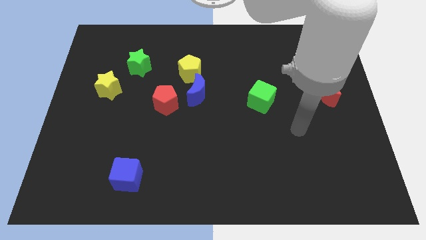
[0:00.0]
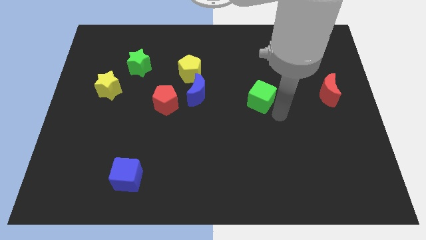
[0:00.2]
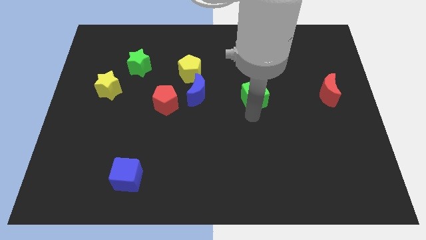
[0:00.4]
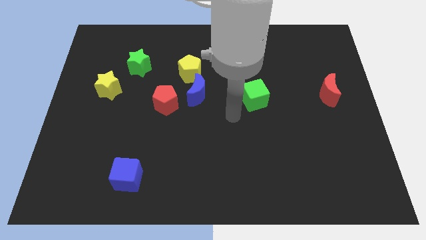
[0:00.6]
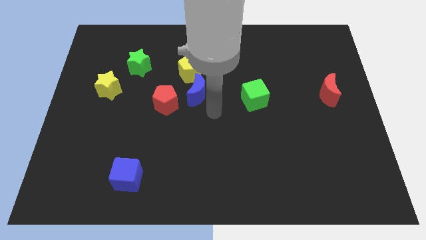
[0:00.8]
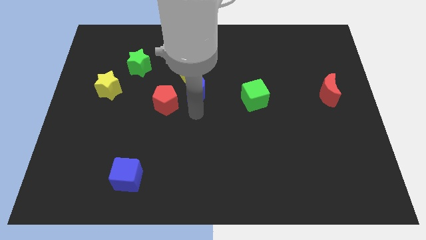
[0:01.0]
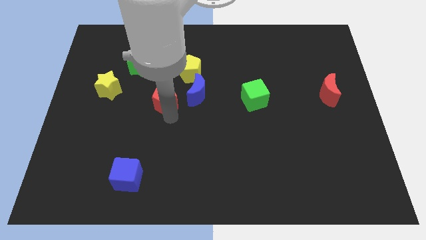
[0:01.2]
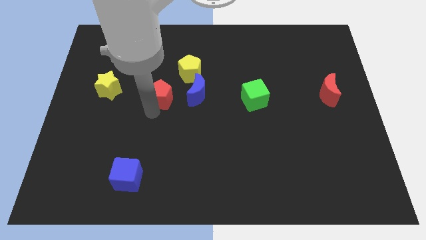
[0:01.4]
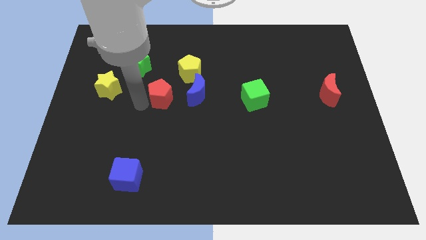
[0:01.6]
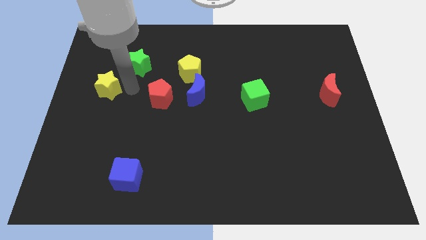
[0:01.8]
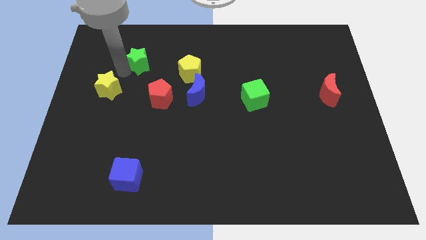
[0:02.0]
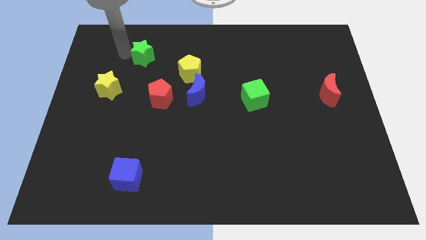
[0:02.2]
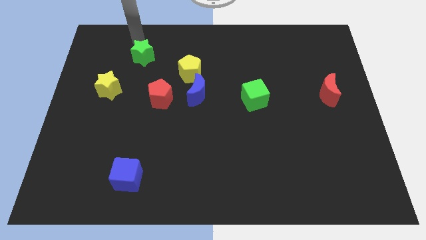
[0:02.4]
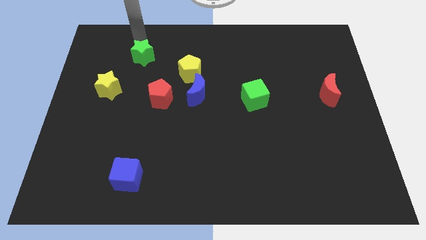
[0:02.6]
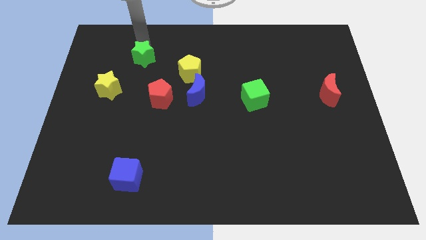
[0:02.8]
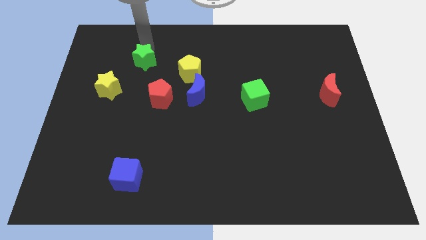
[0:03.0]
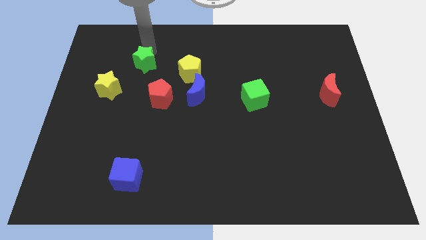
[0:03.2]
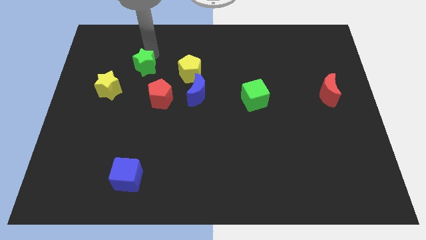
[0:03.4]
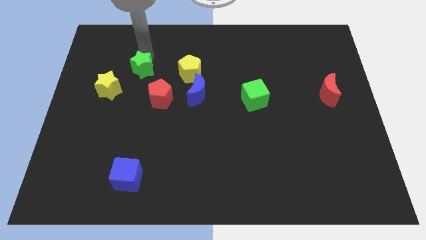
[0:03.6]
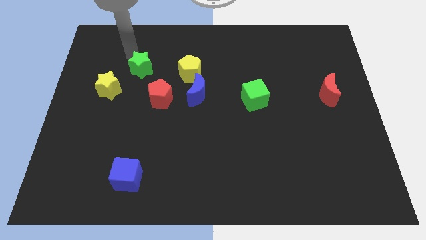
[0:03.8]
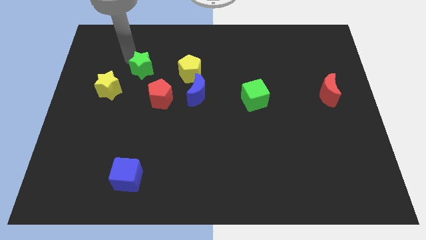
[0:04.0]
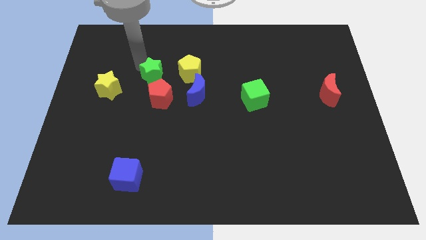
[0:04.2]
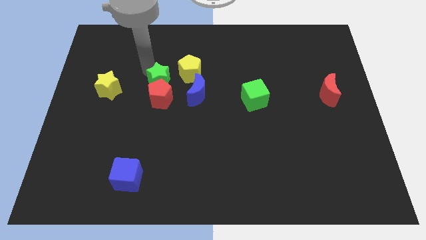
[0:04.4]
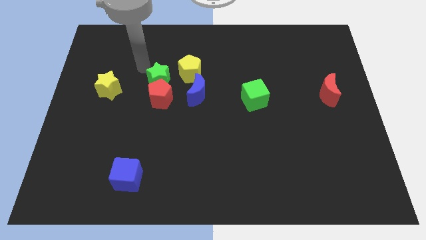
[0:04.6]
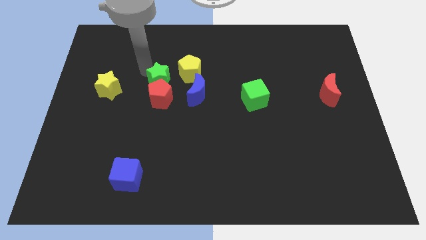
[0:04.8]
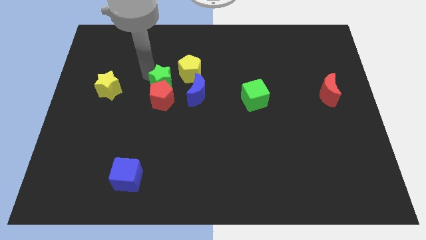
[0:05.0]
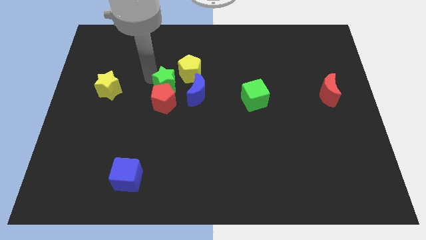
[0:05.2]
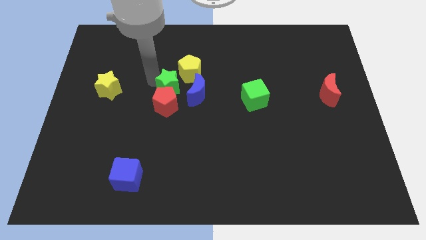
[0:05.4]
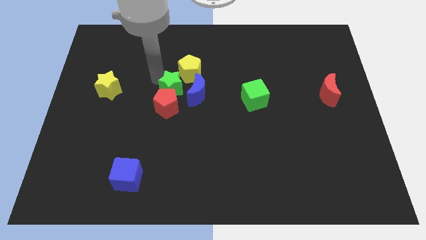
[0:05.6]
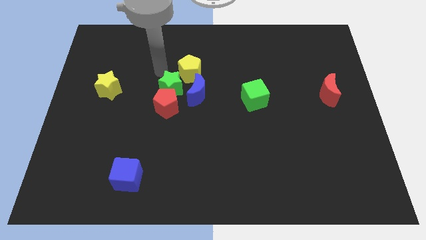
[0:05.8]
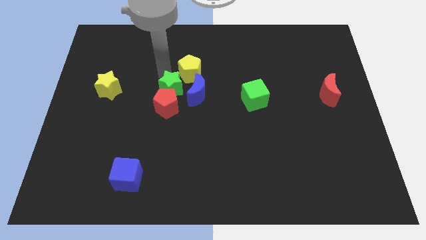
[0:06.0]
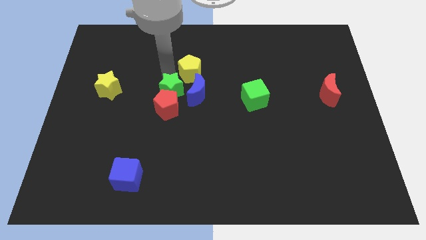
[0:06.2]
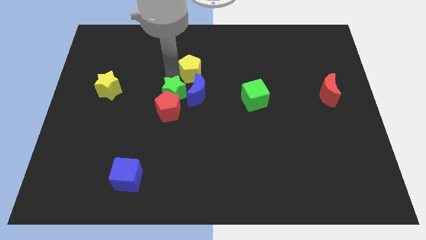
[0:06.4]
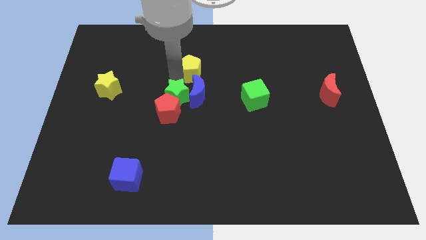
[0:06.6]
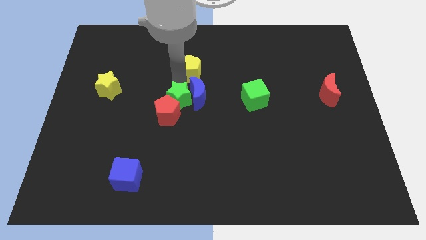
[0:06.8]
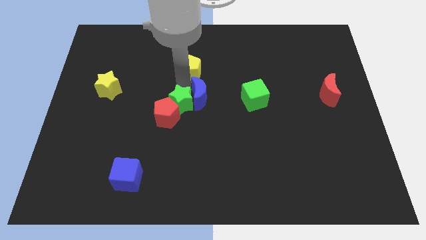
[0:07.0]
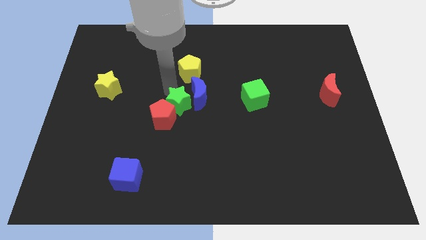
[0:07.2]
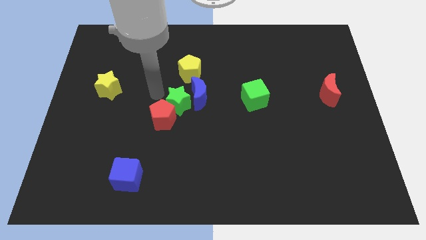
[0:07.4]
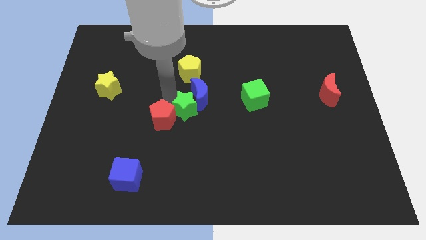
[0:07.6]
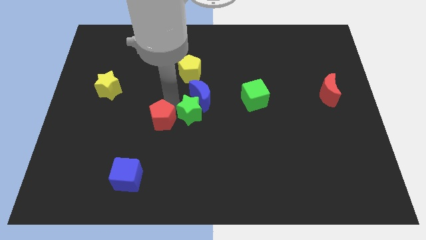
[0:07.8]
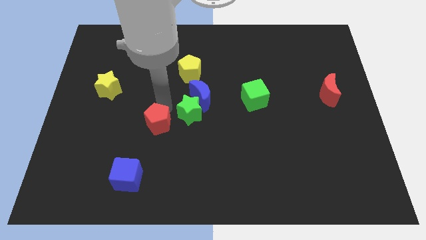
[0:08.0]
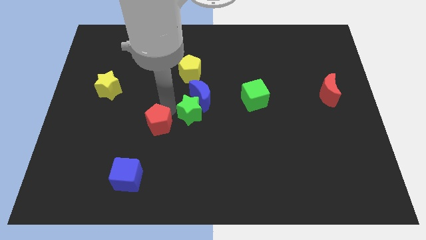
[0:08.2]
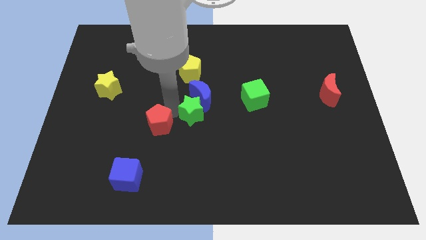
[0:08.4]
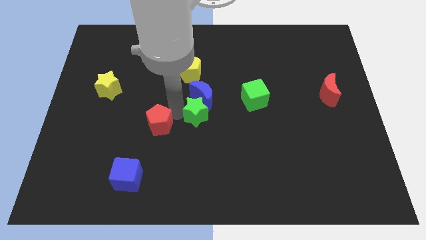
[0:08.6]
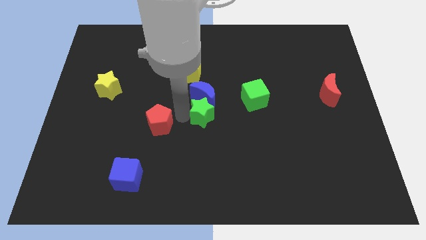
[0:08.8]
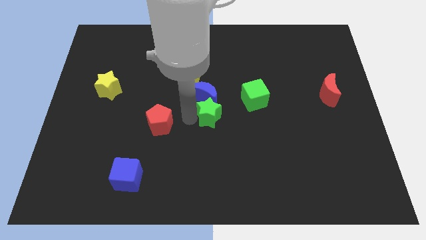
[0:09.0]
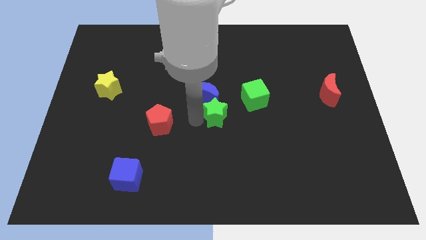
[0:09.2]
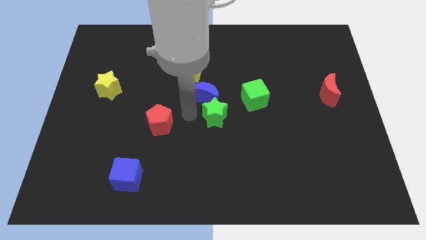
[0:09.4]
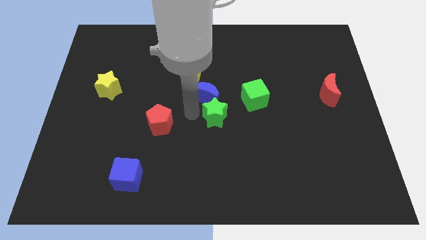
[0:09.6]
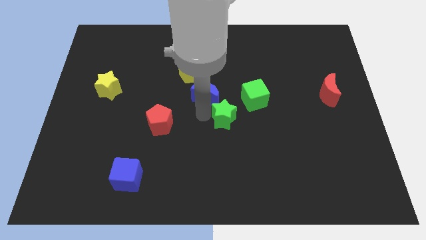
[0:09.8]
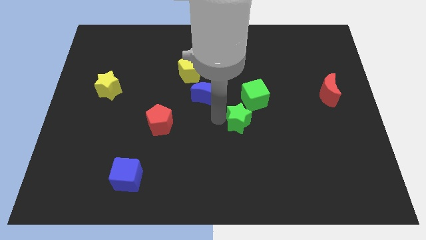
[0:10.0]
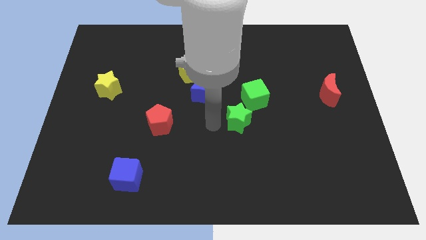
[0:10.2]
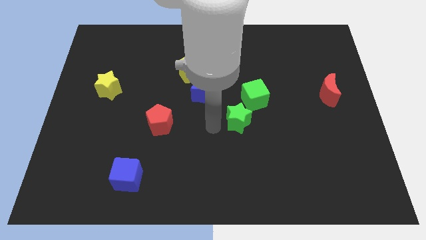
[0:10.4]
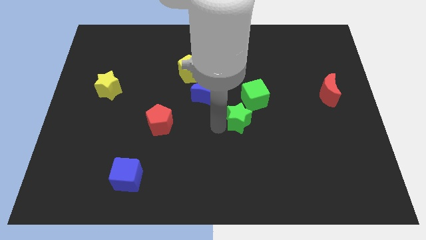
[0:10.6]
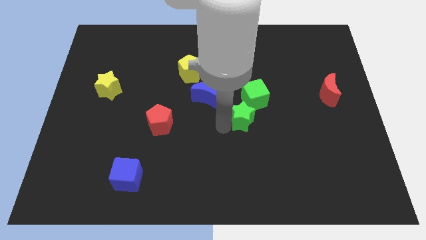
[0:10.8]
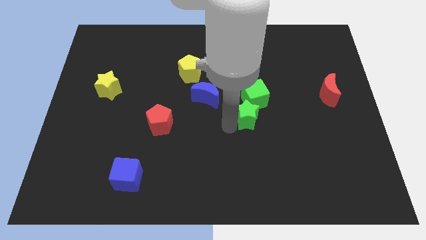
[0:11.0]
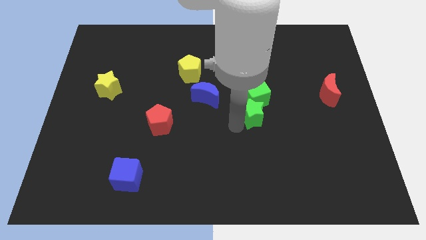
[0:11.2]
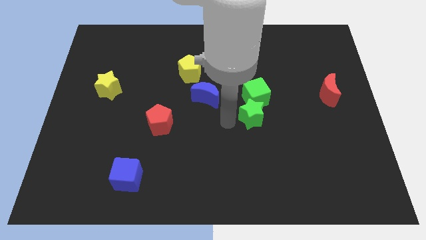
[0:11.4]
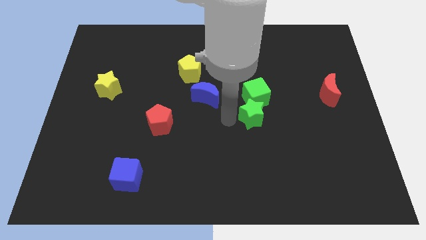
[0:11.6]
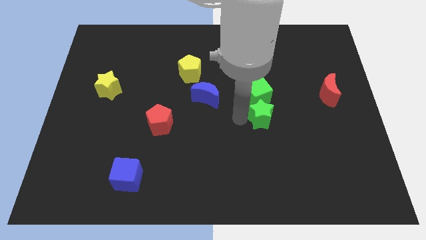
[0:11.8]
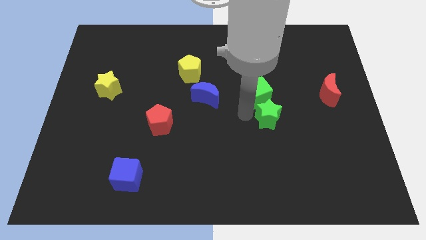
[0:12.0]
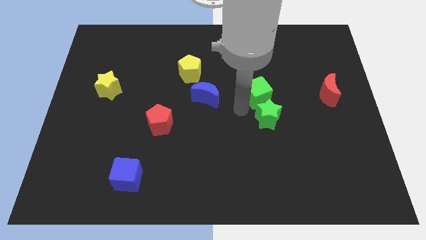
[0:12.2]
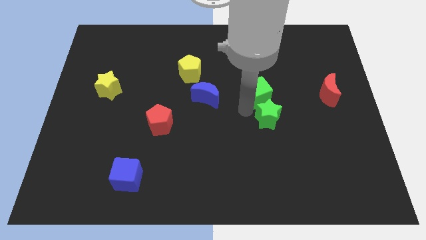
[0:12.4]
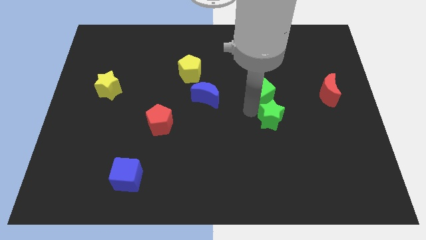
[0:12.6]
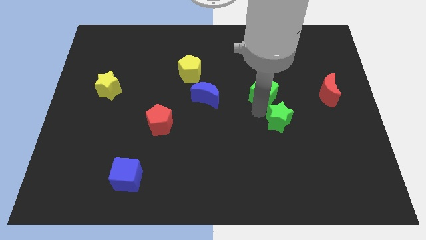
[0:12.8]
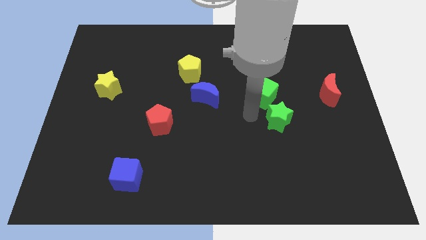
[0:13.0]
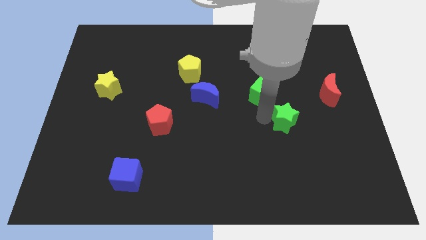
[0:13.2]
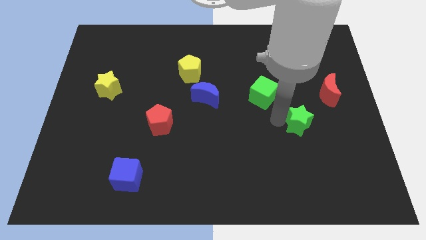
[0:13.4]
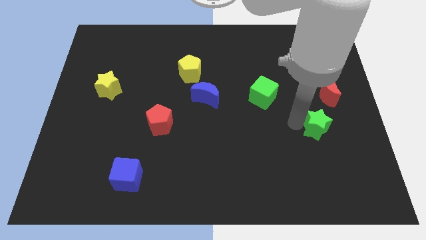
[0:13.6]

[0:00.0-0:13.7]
slide the green star to the bottom of the red moon

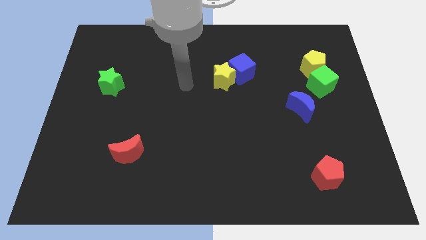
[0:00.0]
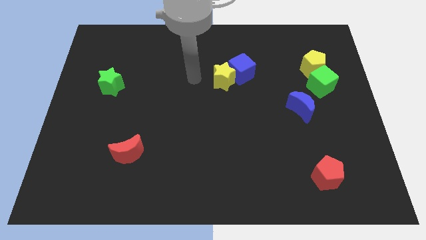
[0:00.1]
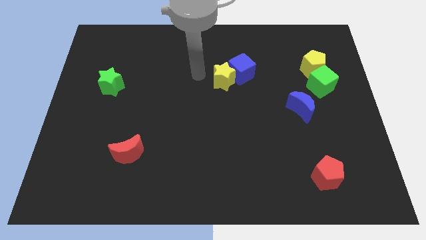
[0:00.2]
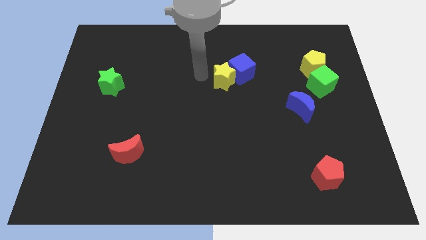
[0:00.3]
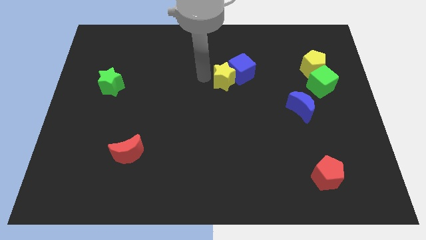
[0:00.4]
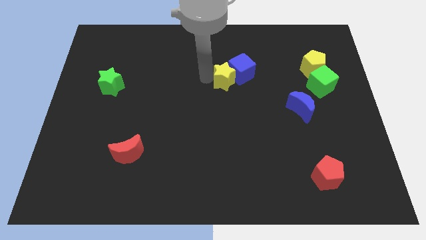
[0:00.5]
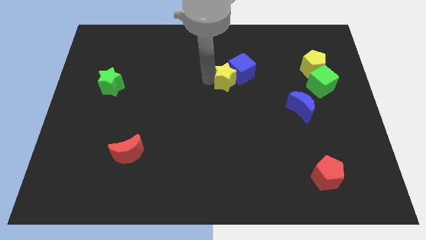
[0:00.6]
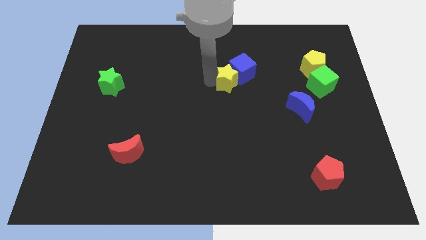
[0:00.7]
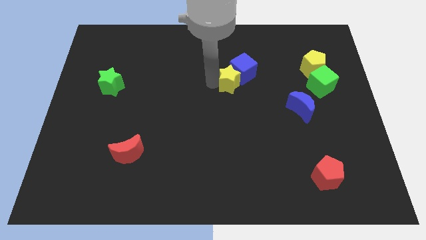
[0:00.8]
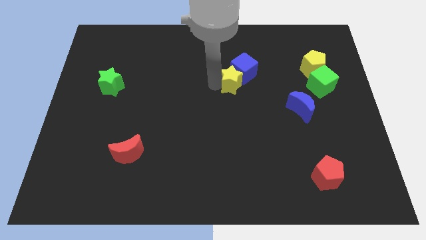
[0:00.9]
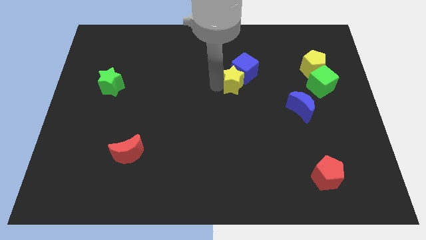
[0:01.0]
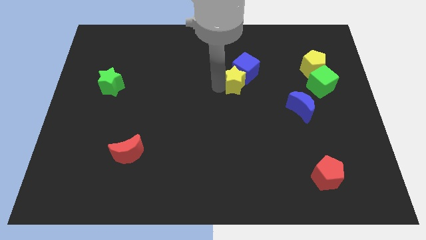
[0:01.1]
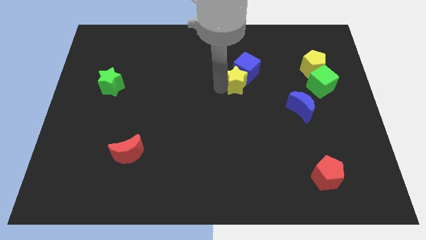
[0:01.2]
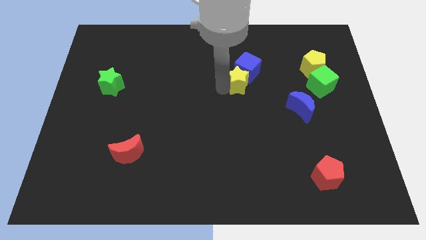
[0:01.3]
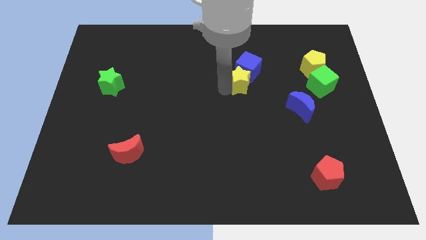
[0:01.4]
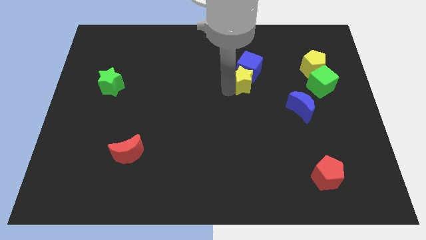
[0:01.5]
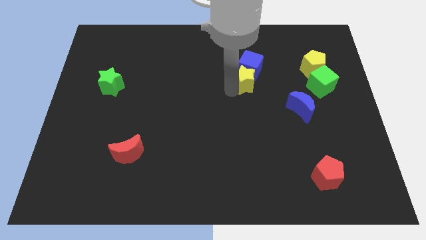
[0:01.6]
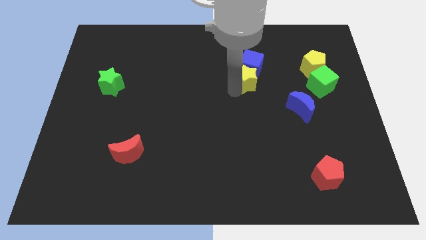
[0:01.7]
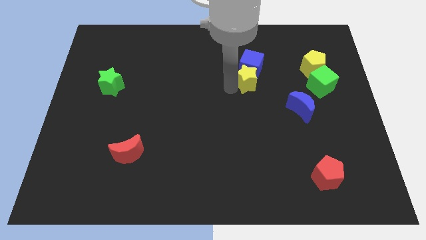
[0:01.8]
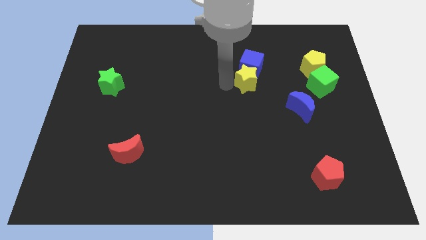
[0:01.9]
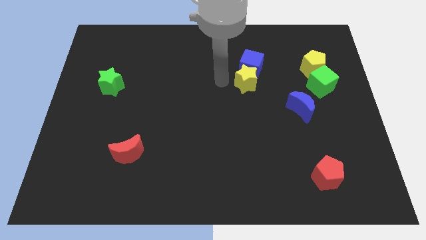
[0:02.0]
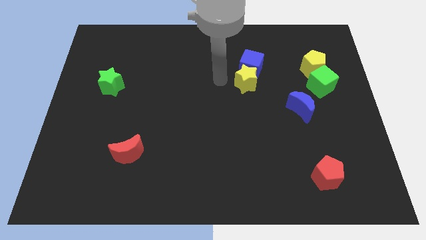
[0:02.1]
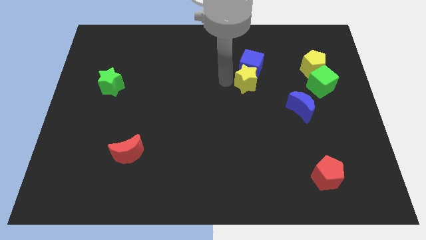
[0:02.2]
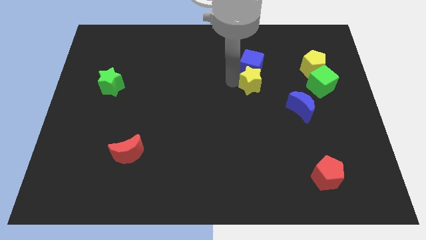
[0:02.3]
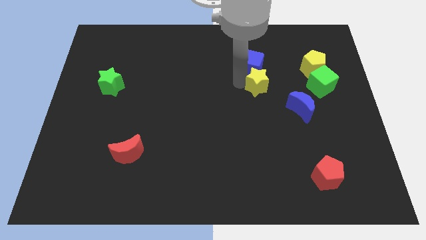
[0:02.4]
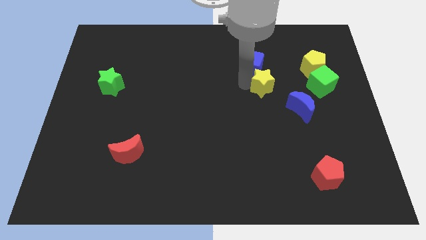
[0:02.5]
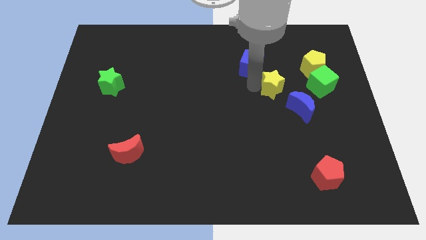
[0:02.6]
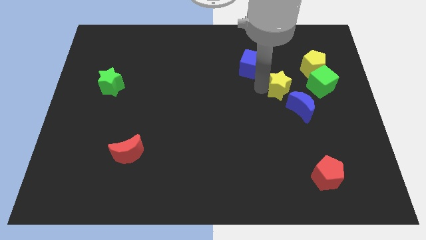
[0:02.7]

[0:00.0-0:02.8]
put the yellow star to the bottom left of the yellow pentagon
